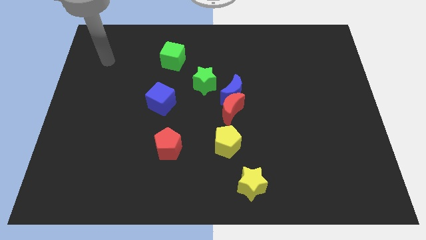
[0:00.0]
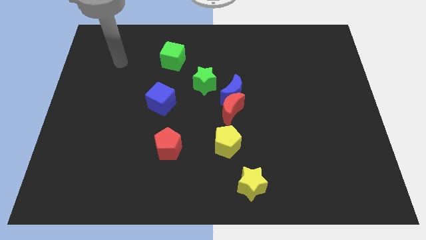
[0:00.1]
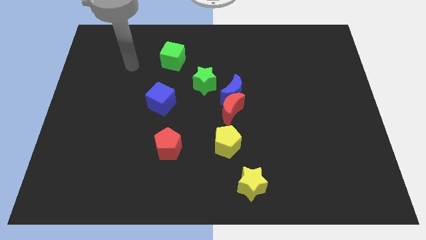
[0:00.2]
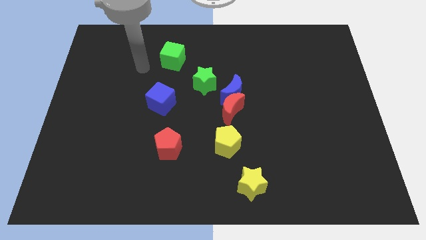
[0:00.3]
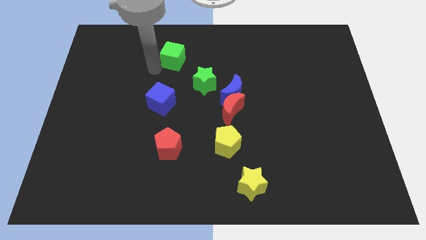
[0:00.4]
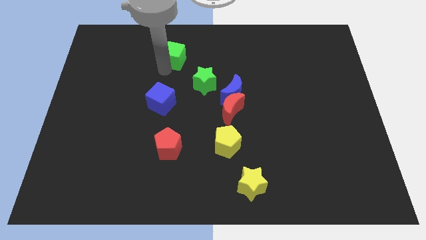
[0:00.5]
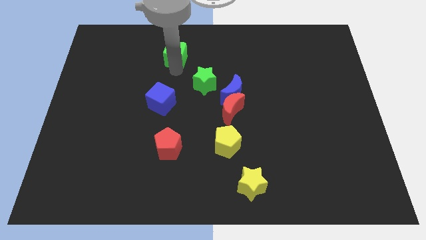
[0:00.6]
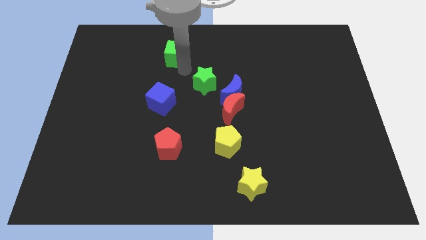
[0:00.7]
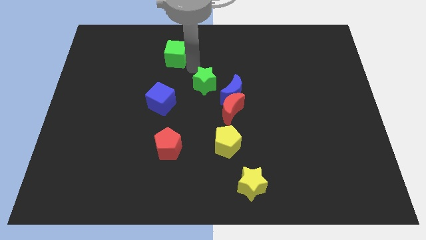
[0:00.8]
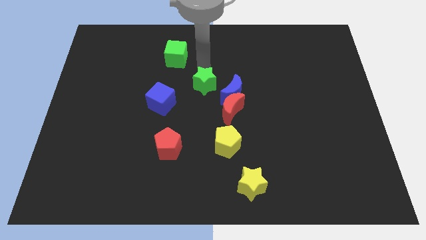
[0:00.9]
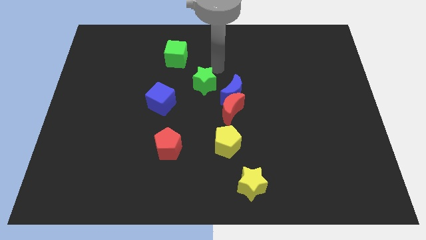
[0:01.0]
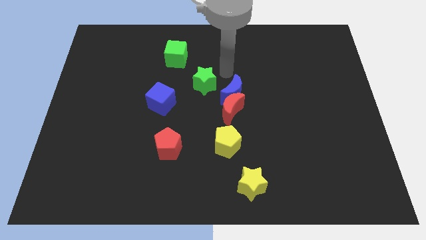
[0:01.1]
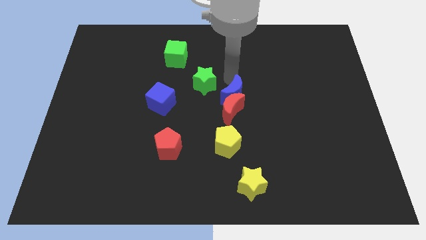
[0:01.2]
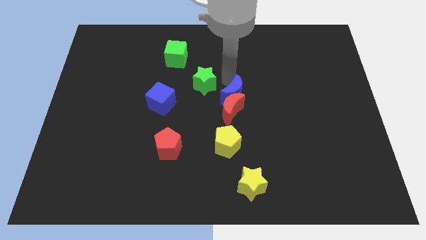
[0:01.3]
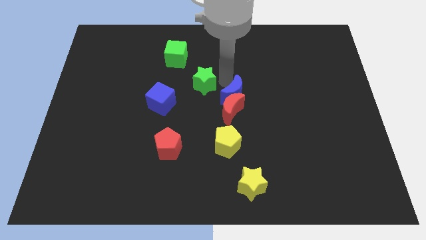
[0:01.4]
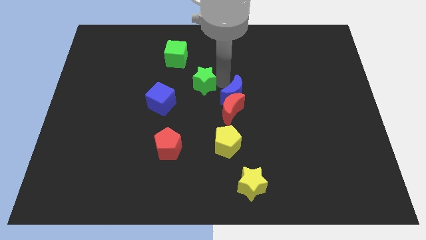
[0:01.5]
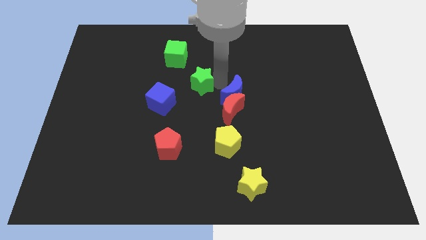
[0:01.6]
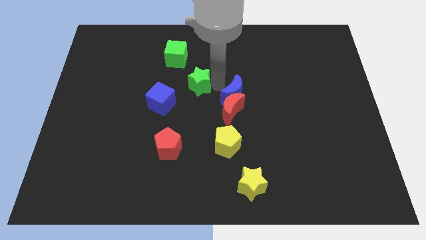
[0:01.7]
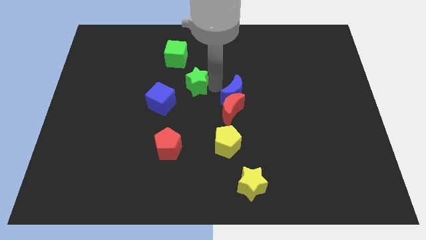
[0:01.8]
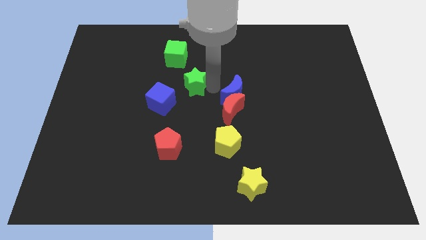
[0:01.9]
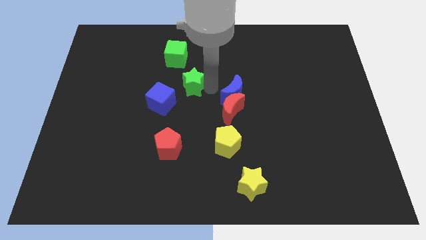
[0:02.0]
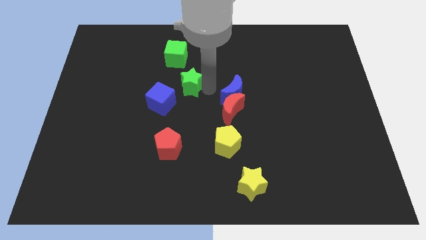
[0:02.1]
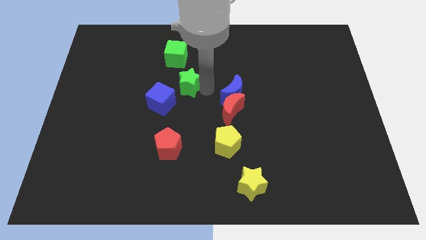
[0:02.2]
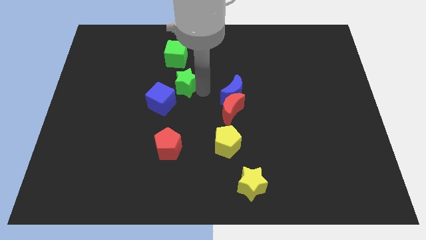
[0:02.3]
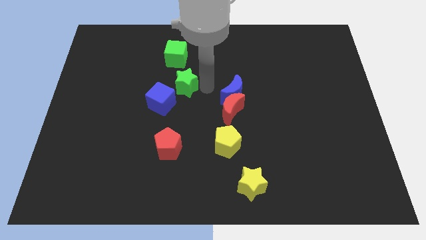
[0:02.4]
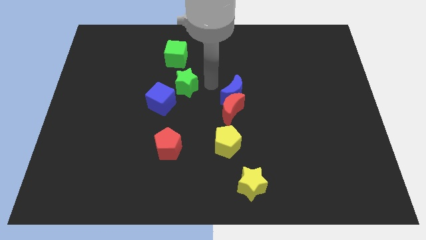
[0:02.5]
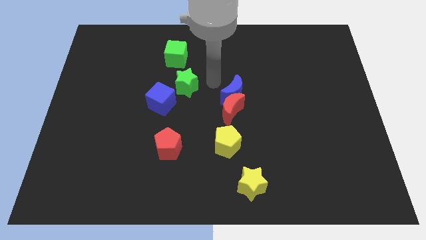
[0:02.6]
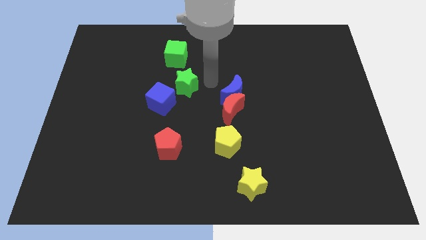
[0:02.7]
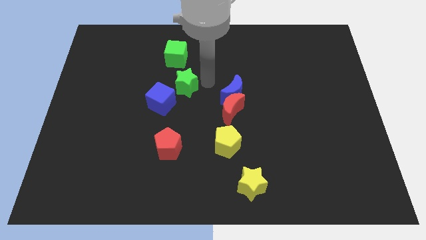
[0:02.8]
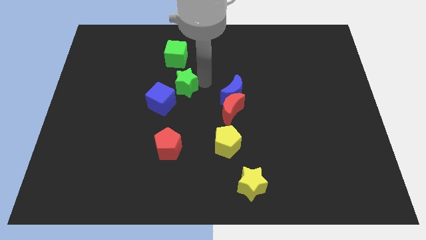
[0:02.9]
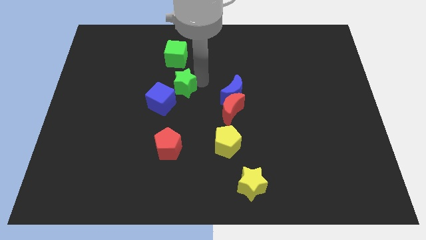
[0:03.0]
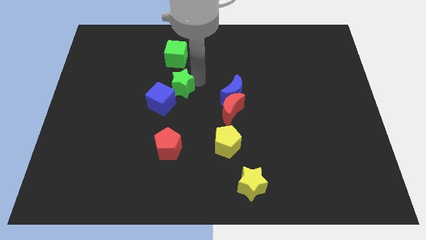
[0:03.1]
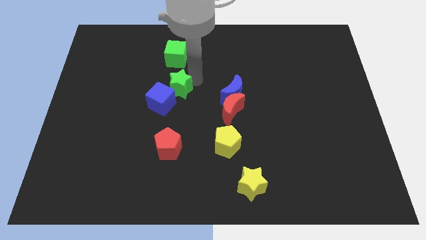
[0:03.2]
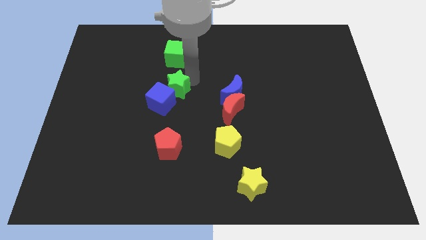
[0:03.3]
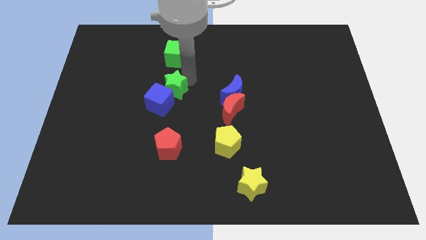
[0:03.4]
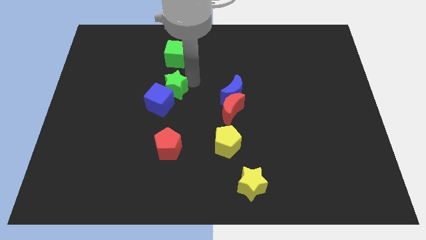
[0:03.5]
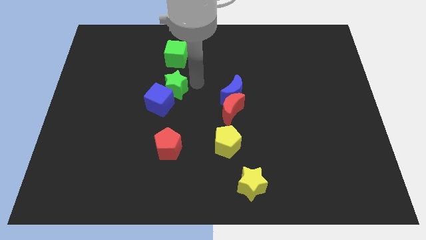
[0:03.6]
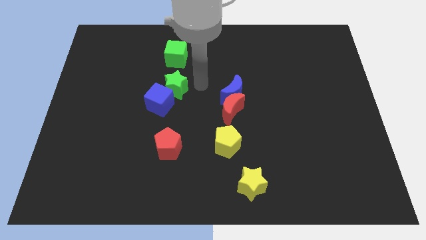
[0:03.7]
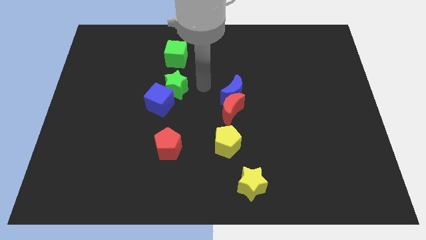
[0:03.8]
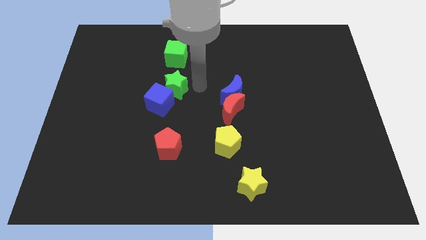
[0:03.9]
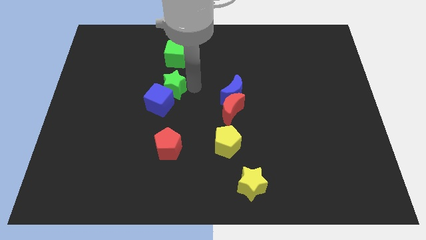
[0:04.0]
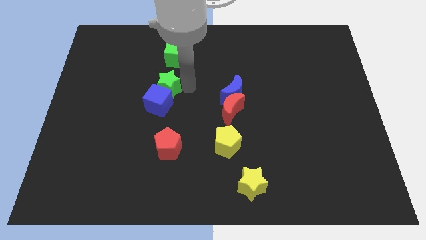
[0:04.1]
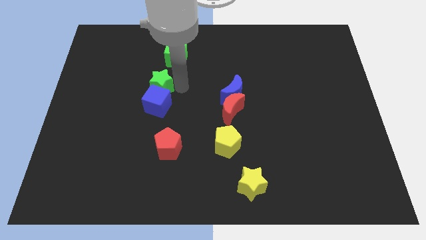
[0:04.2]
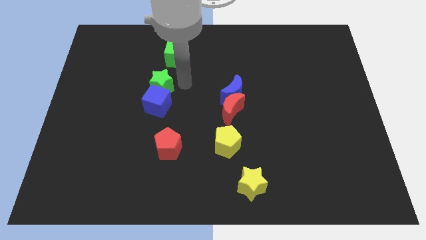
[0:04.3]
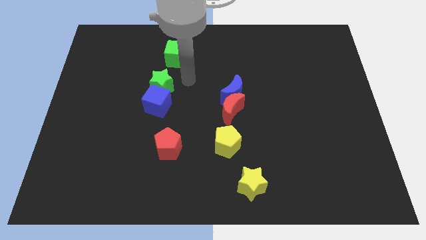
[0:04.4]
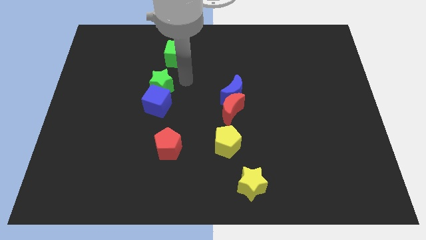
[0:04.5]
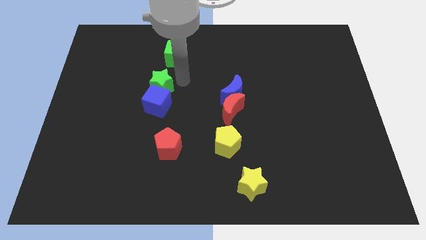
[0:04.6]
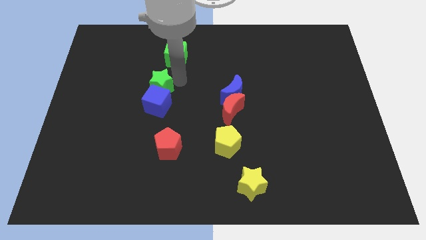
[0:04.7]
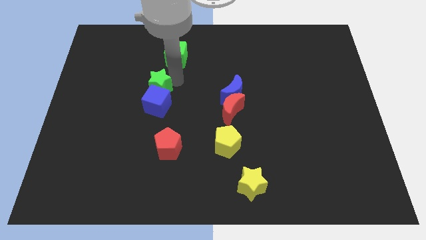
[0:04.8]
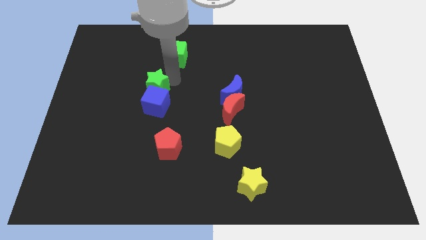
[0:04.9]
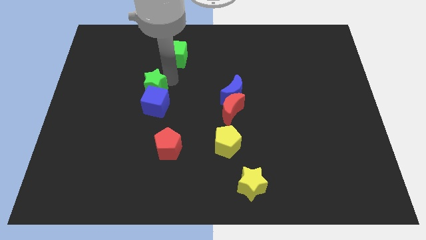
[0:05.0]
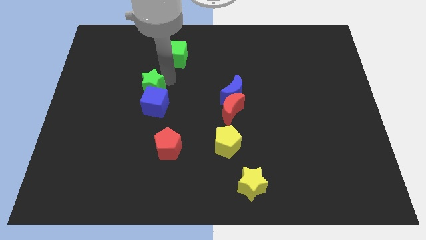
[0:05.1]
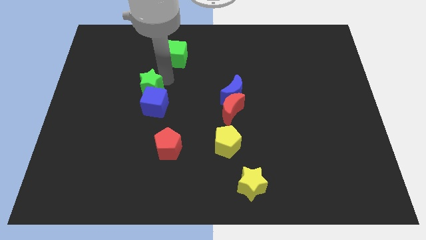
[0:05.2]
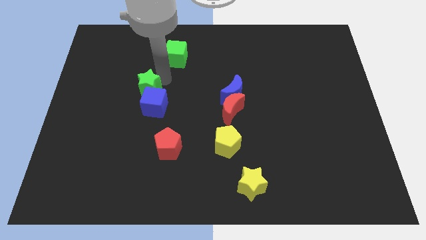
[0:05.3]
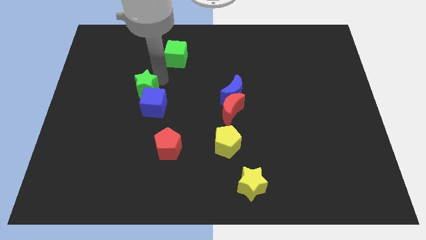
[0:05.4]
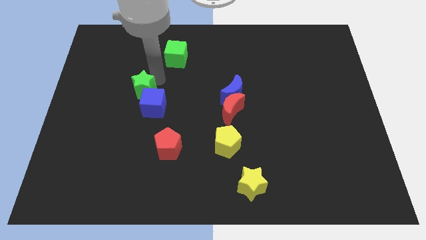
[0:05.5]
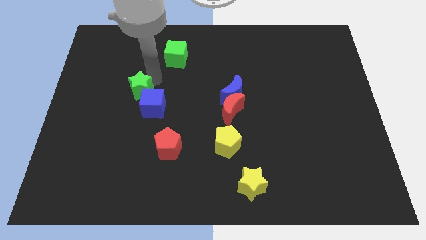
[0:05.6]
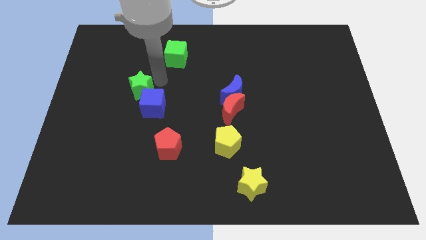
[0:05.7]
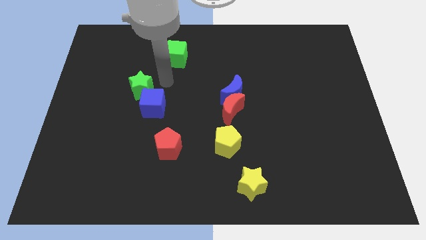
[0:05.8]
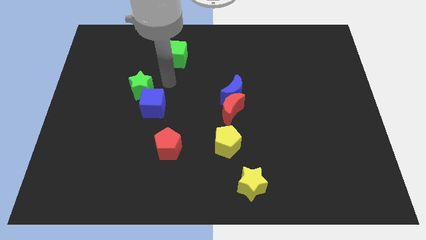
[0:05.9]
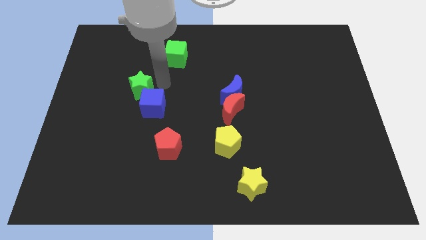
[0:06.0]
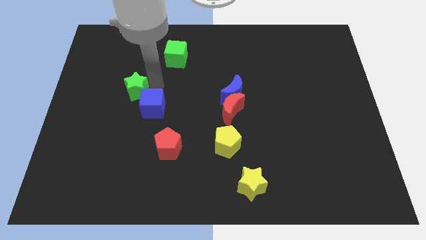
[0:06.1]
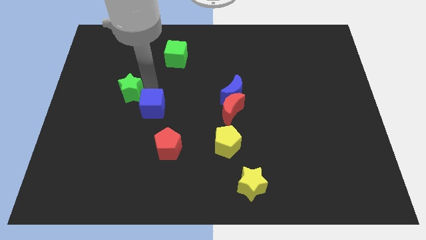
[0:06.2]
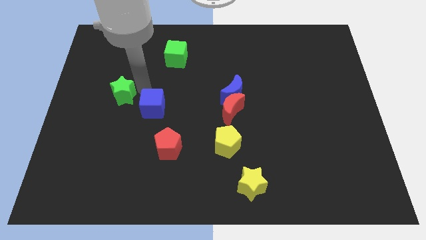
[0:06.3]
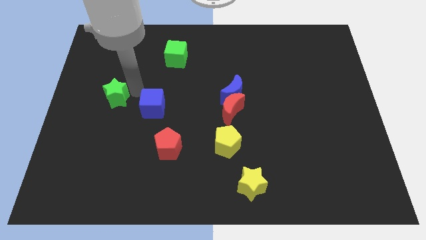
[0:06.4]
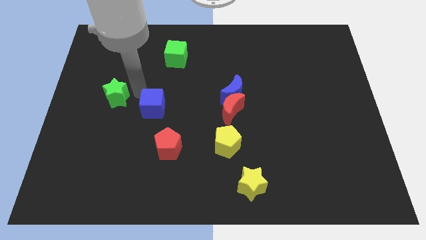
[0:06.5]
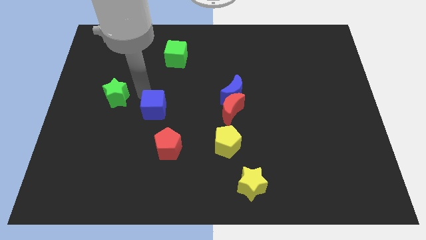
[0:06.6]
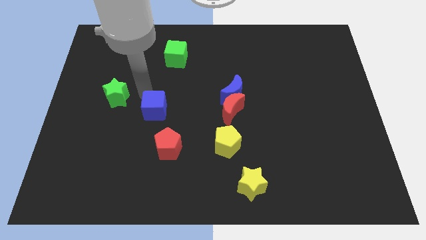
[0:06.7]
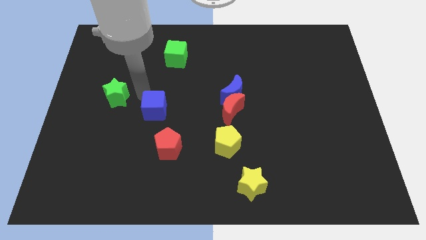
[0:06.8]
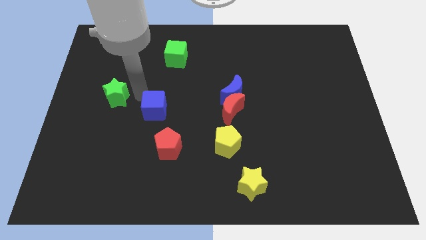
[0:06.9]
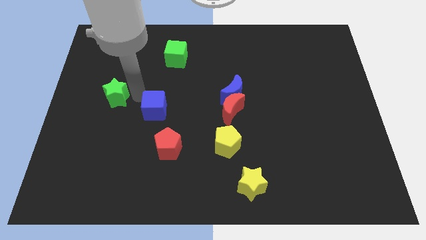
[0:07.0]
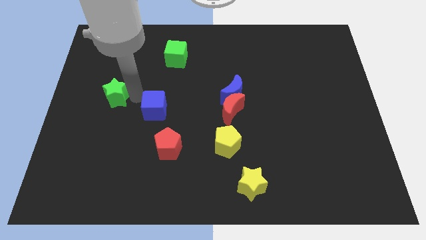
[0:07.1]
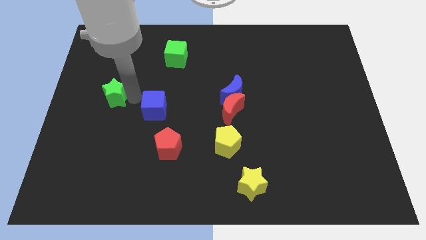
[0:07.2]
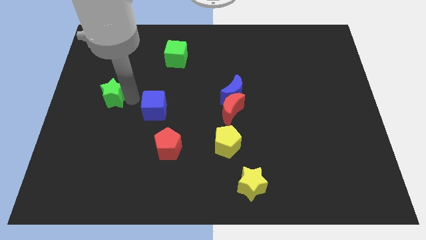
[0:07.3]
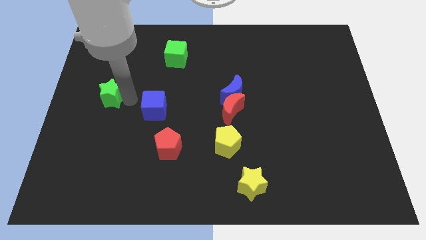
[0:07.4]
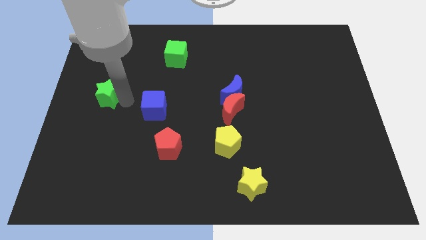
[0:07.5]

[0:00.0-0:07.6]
move the green star to the center left

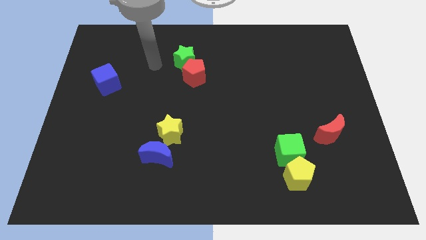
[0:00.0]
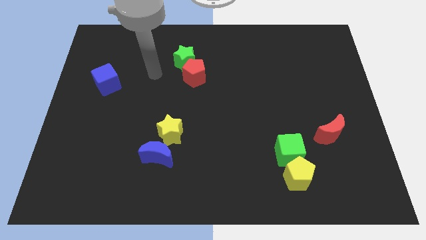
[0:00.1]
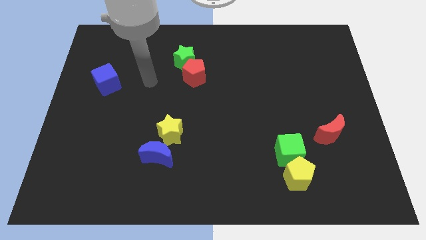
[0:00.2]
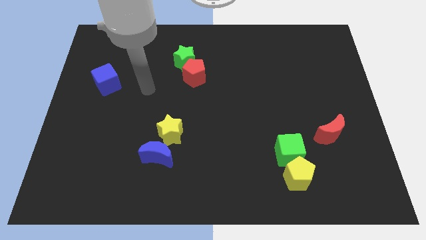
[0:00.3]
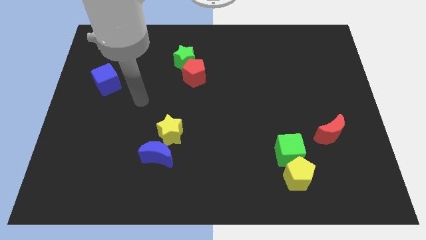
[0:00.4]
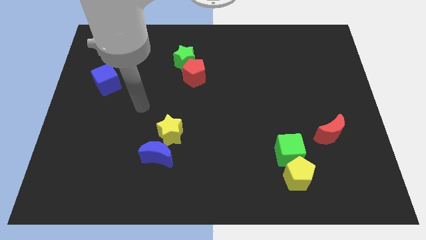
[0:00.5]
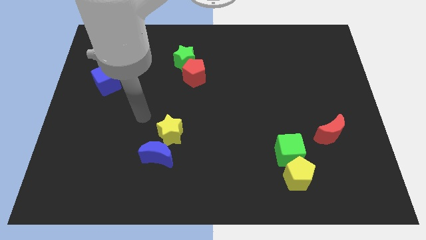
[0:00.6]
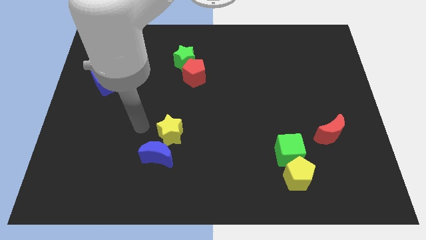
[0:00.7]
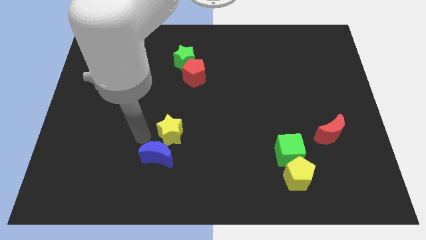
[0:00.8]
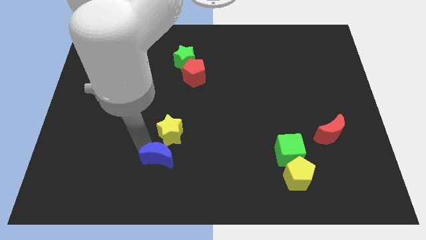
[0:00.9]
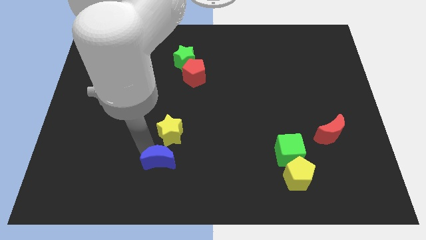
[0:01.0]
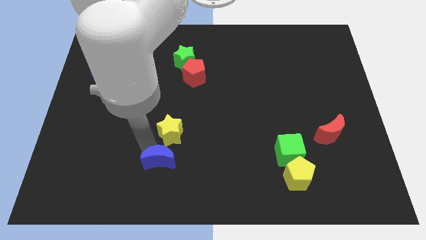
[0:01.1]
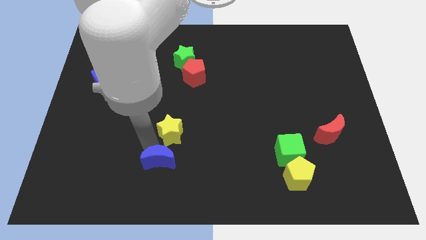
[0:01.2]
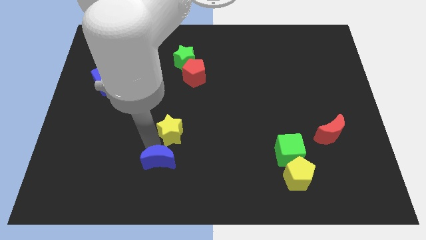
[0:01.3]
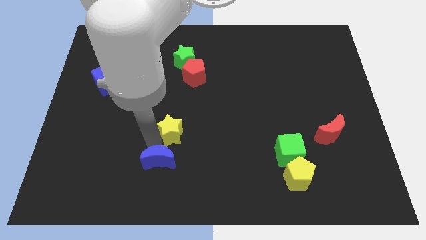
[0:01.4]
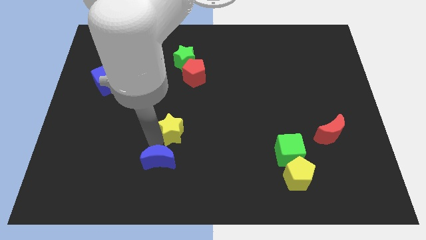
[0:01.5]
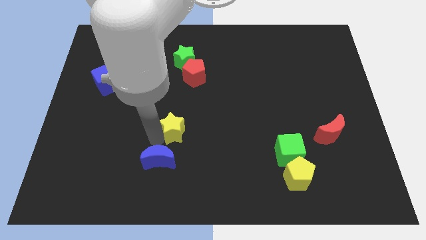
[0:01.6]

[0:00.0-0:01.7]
move the yellow star to the center
